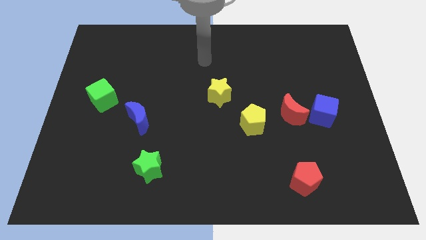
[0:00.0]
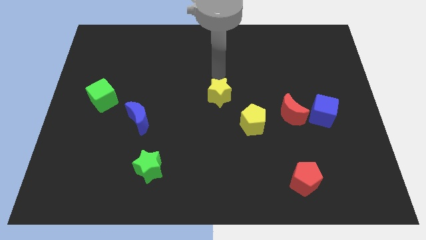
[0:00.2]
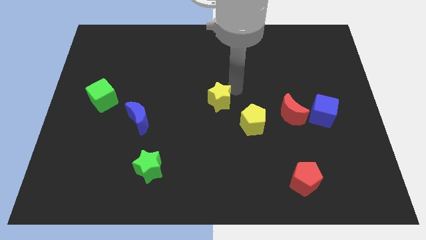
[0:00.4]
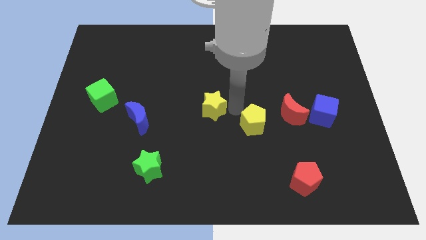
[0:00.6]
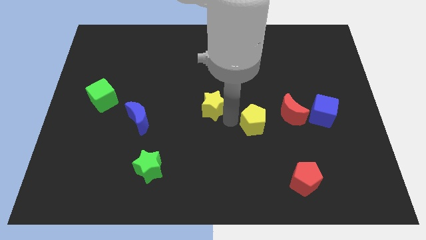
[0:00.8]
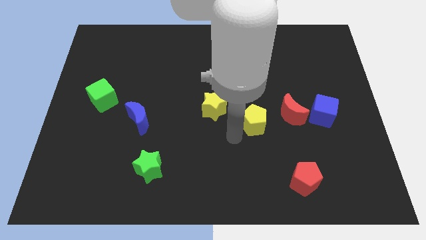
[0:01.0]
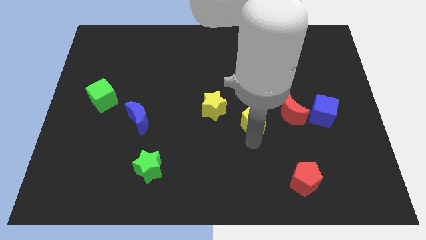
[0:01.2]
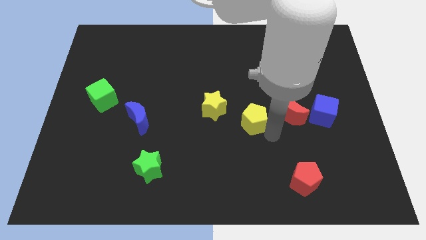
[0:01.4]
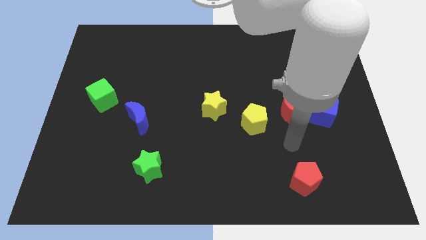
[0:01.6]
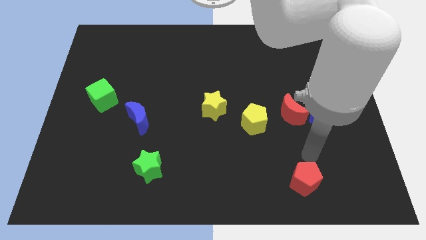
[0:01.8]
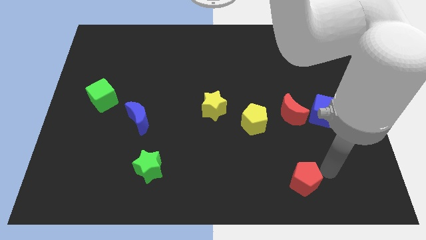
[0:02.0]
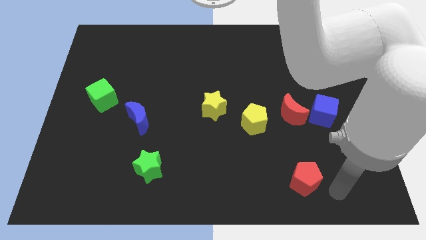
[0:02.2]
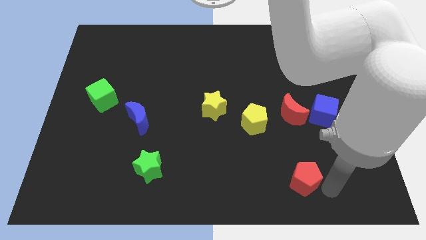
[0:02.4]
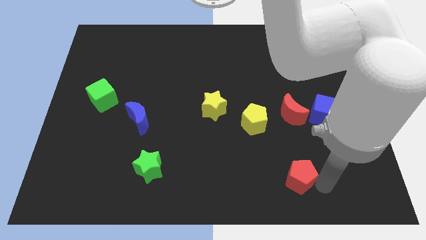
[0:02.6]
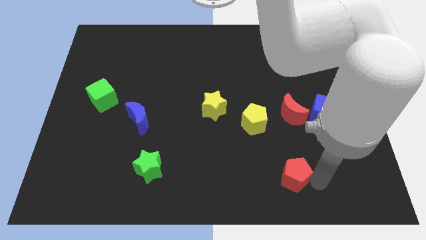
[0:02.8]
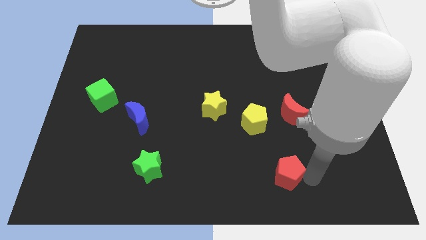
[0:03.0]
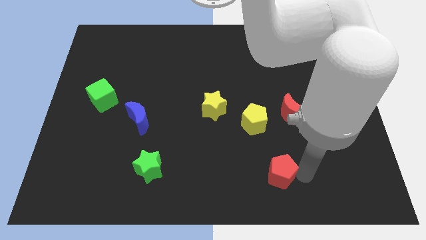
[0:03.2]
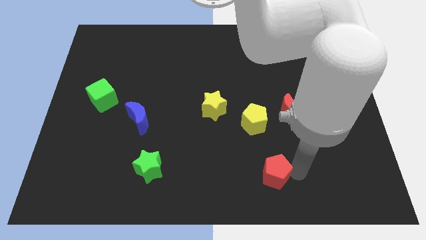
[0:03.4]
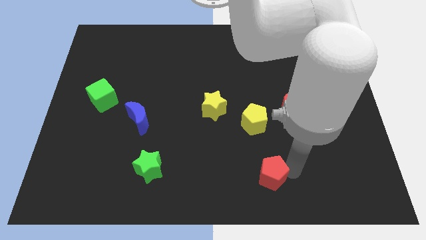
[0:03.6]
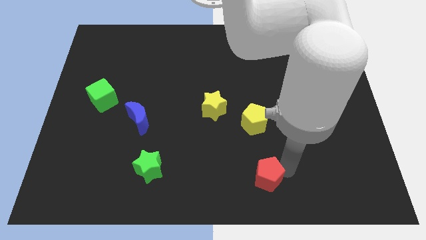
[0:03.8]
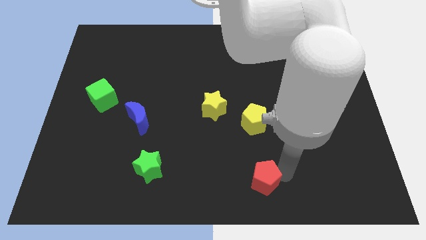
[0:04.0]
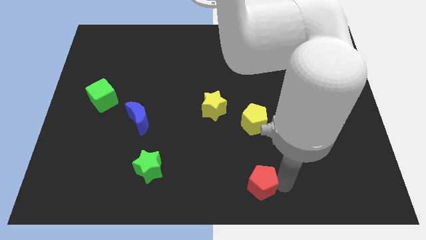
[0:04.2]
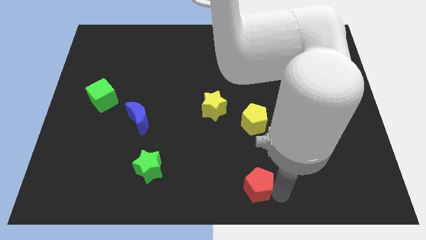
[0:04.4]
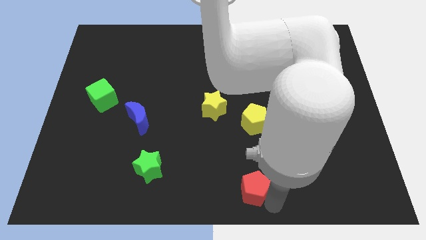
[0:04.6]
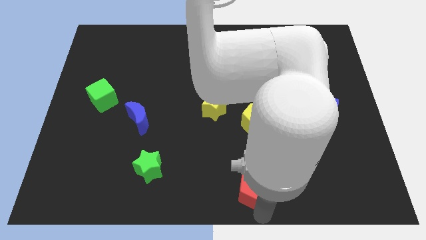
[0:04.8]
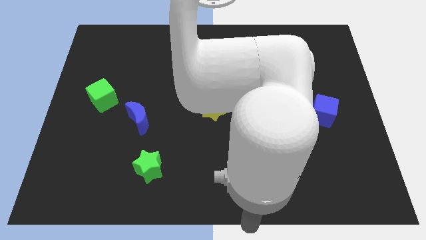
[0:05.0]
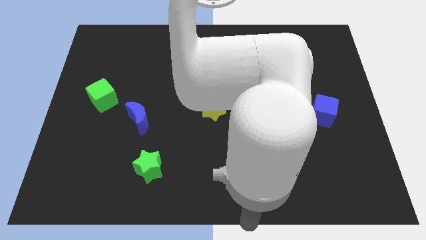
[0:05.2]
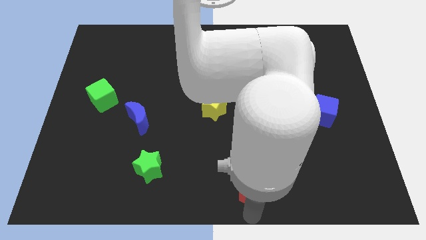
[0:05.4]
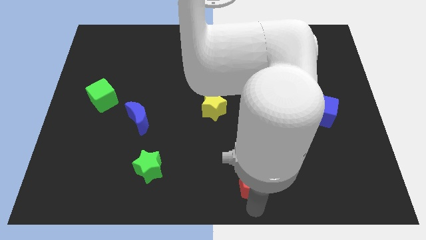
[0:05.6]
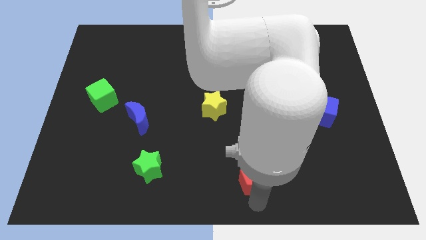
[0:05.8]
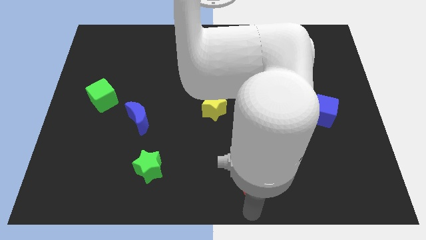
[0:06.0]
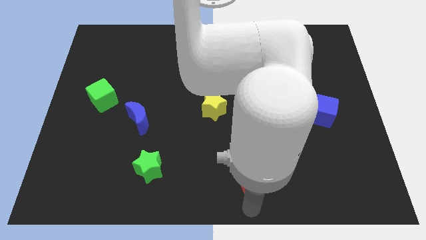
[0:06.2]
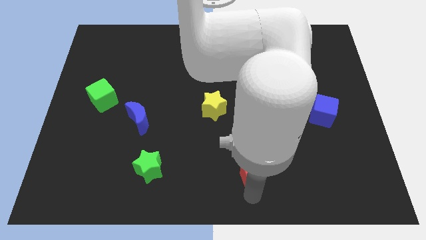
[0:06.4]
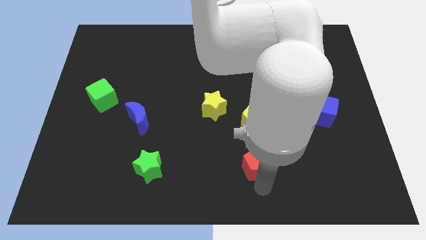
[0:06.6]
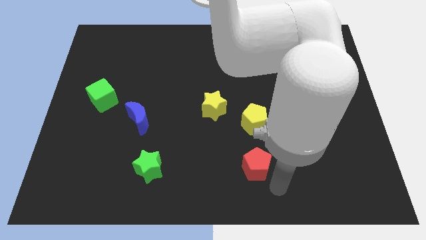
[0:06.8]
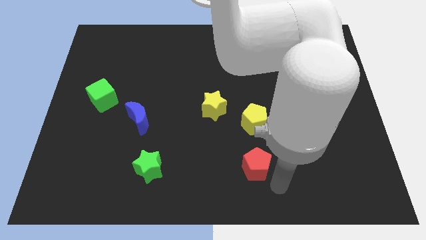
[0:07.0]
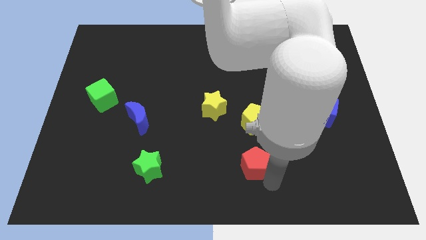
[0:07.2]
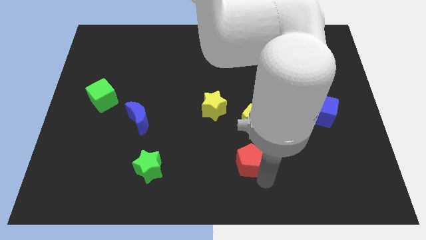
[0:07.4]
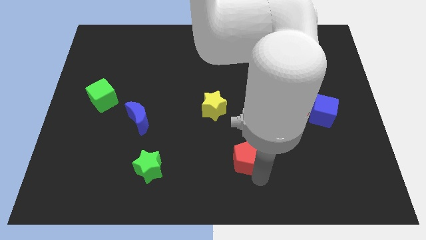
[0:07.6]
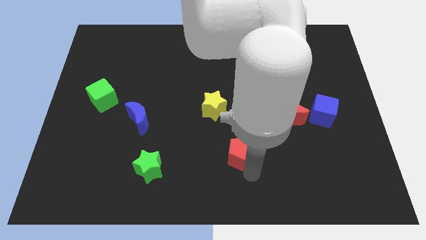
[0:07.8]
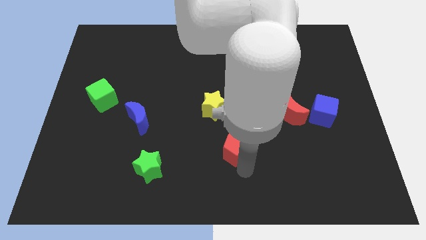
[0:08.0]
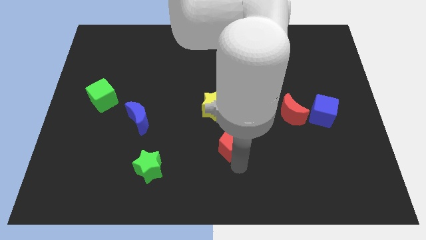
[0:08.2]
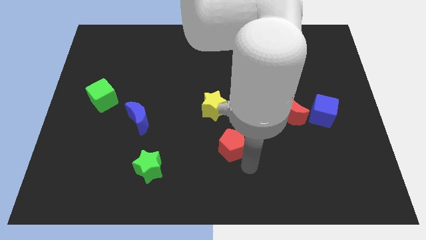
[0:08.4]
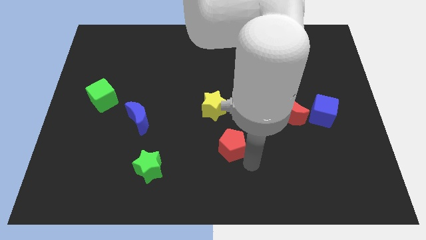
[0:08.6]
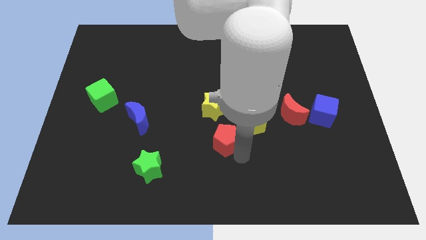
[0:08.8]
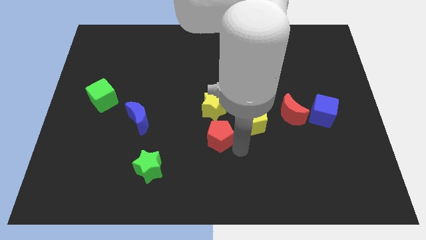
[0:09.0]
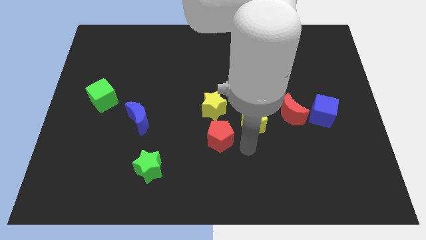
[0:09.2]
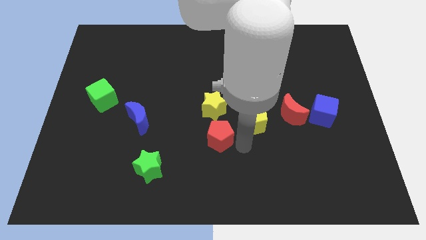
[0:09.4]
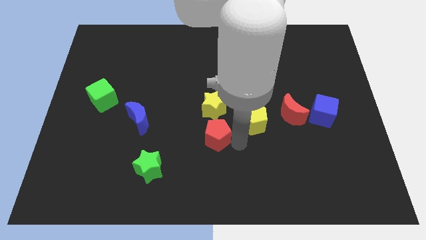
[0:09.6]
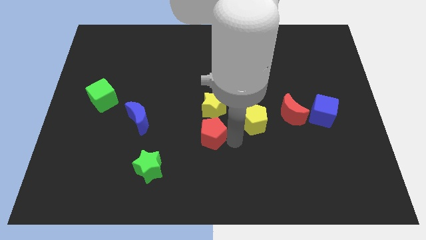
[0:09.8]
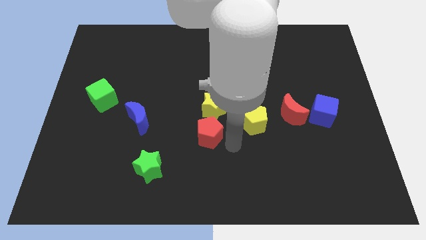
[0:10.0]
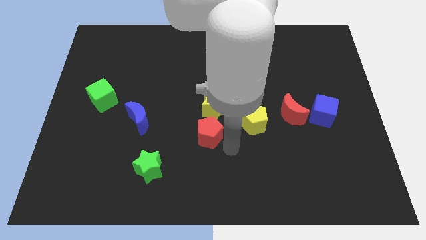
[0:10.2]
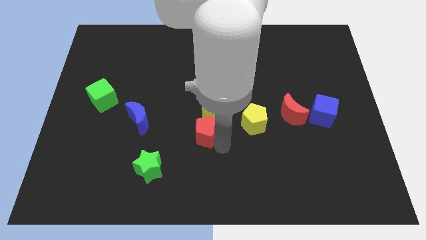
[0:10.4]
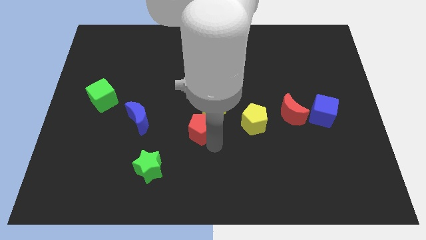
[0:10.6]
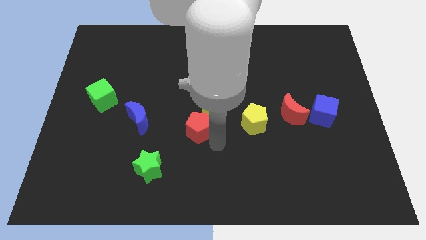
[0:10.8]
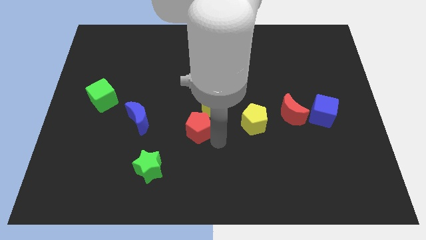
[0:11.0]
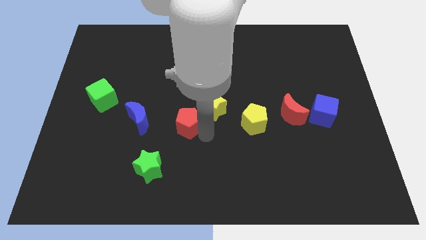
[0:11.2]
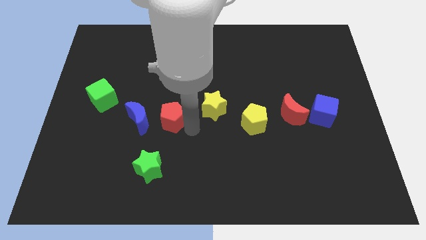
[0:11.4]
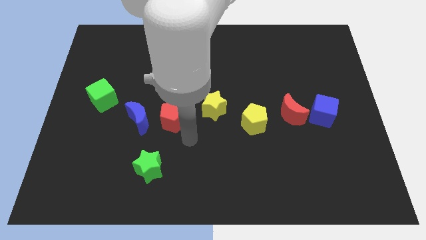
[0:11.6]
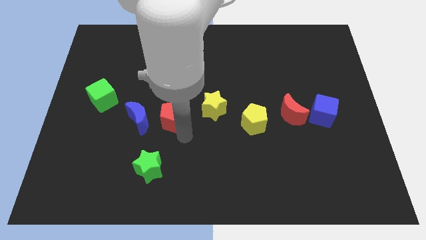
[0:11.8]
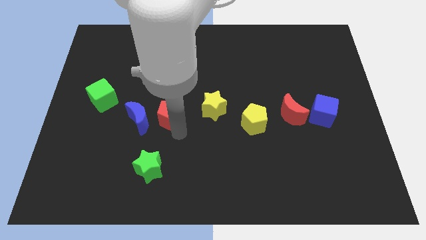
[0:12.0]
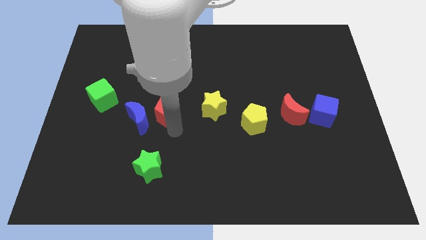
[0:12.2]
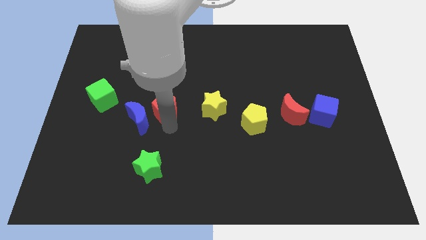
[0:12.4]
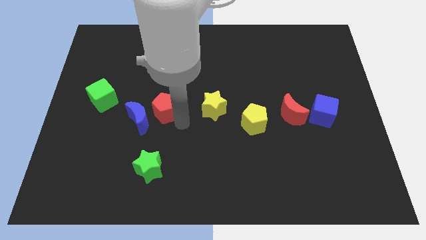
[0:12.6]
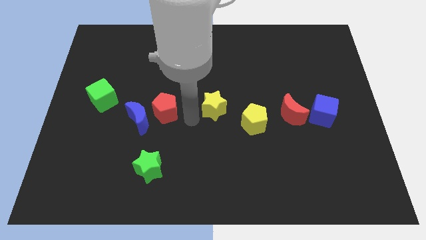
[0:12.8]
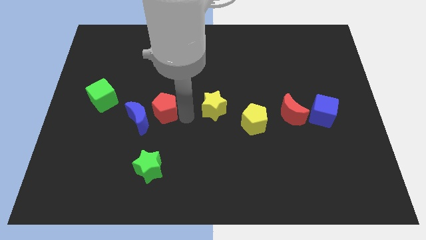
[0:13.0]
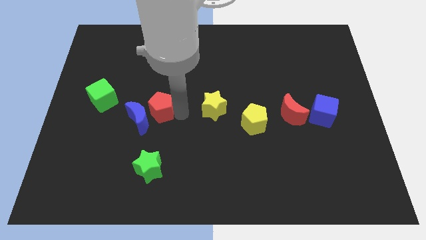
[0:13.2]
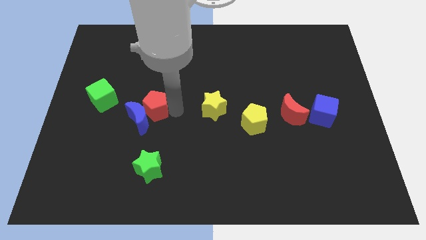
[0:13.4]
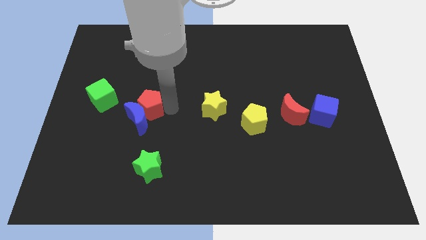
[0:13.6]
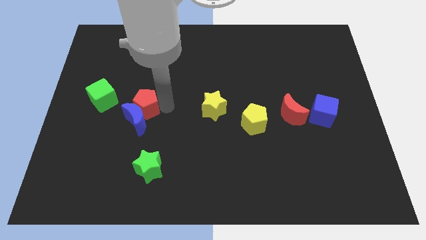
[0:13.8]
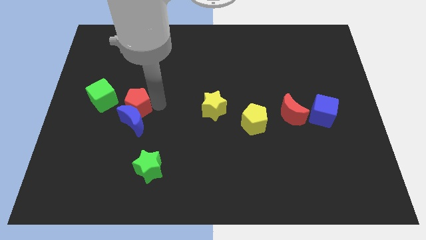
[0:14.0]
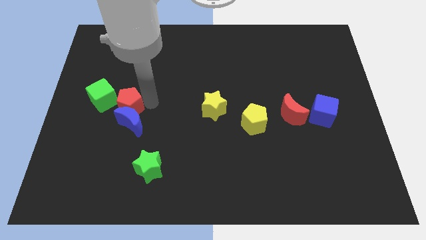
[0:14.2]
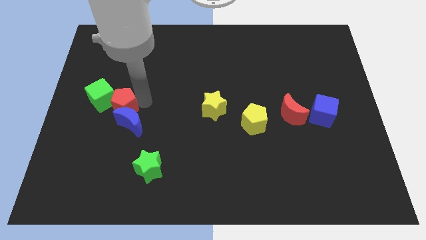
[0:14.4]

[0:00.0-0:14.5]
push the red pentagon towards the green cube

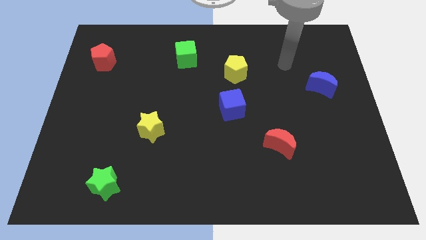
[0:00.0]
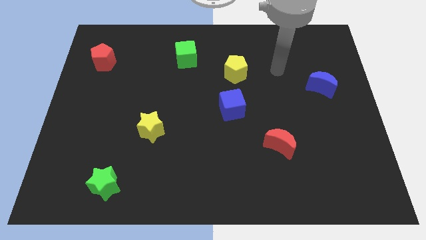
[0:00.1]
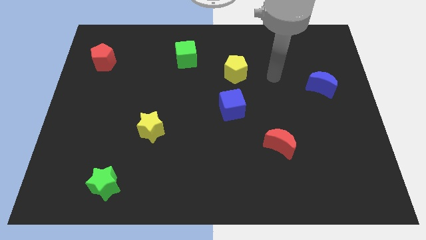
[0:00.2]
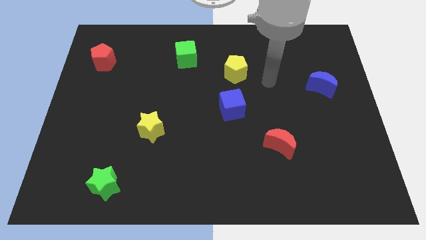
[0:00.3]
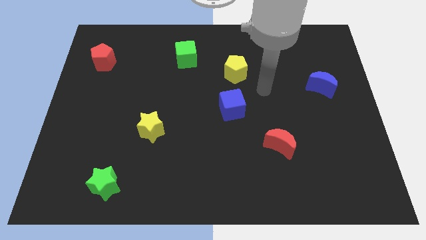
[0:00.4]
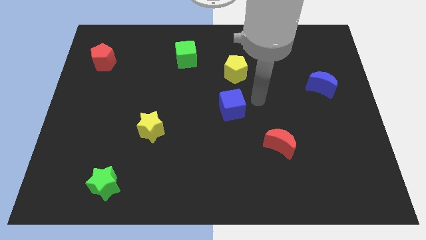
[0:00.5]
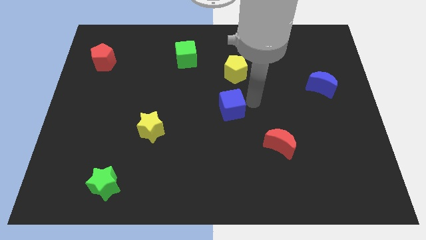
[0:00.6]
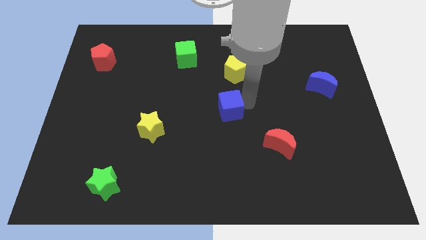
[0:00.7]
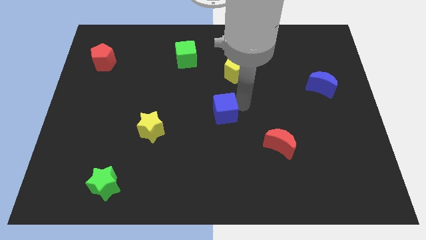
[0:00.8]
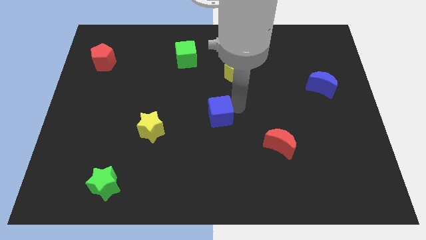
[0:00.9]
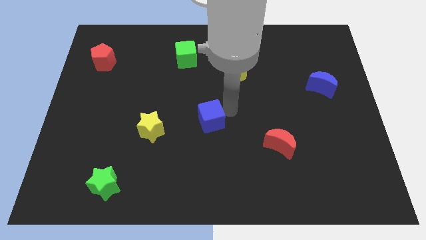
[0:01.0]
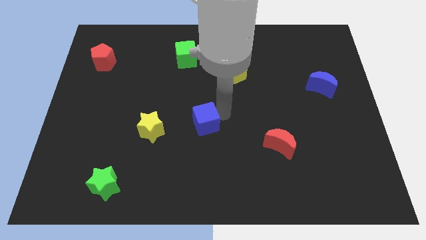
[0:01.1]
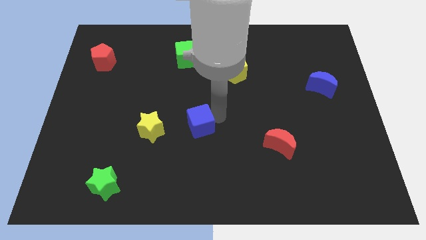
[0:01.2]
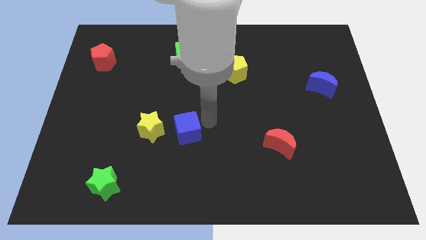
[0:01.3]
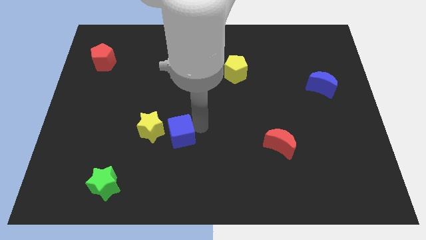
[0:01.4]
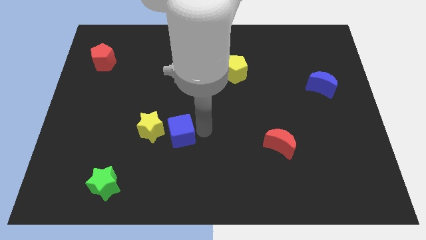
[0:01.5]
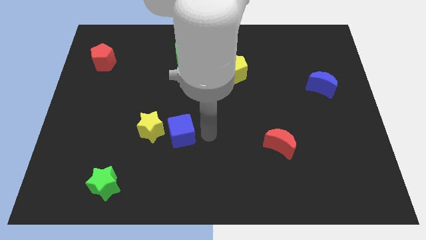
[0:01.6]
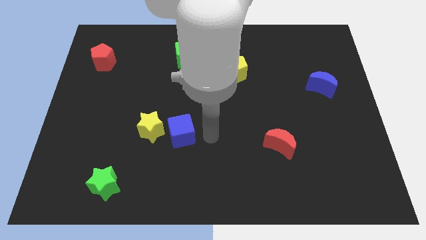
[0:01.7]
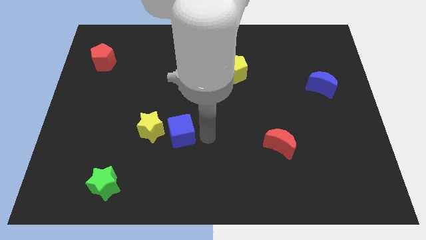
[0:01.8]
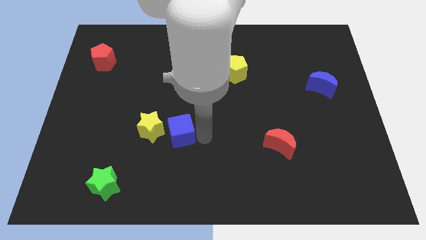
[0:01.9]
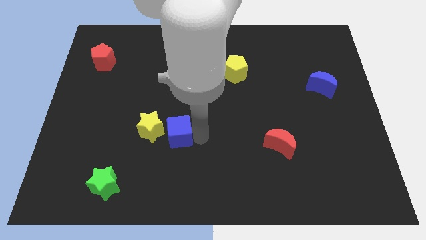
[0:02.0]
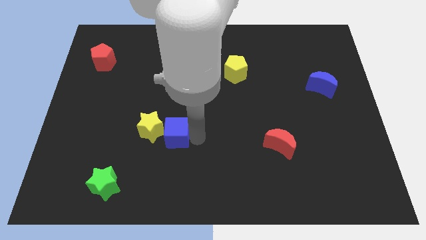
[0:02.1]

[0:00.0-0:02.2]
put the blue cube towards the yellow star
